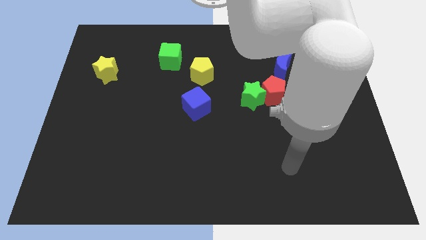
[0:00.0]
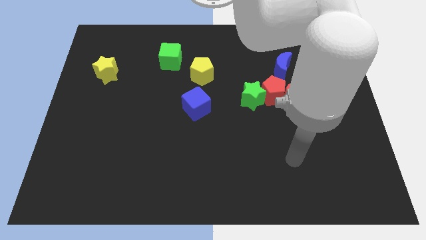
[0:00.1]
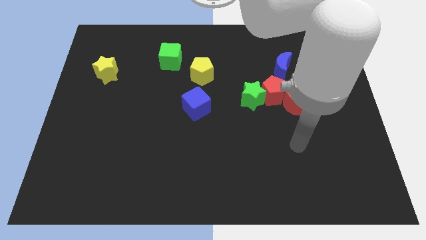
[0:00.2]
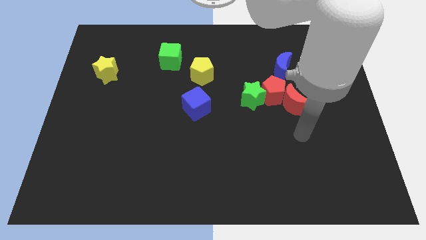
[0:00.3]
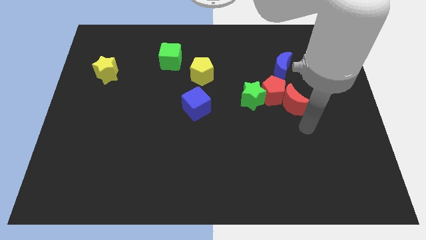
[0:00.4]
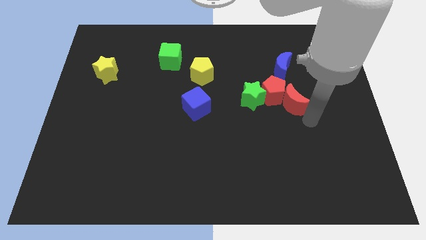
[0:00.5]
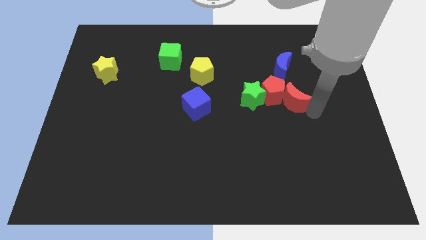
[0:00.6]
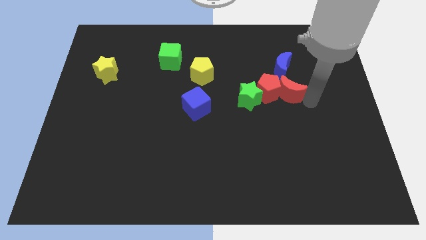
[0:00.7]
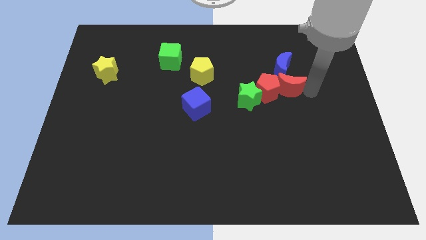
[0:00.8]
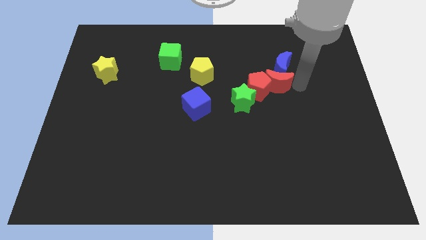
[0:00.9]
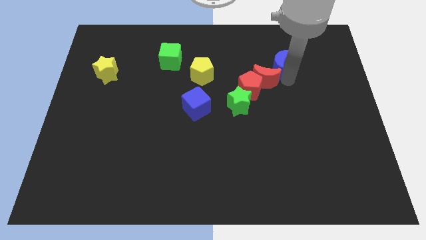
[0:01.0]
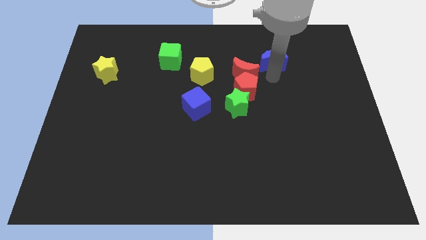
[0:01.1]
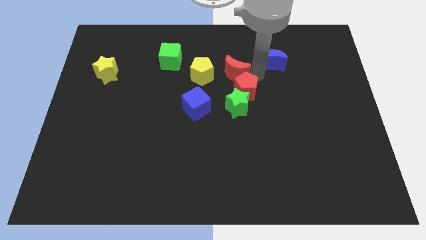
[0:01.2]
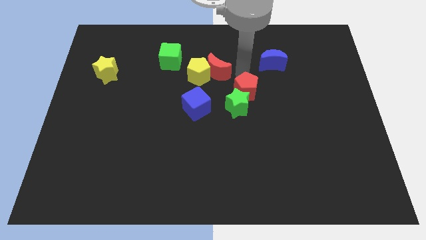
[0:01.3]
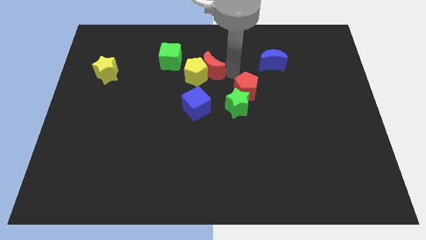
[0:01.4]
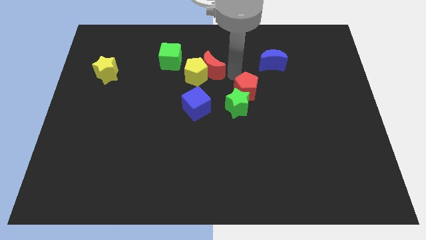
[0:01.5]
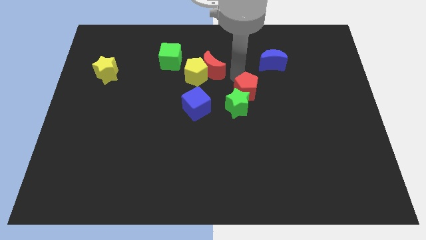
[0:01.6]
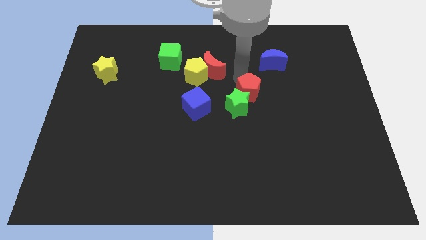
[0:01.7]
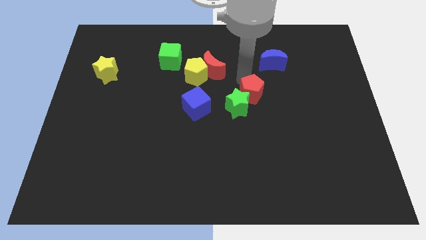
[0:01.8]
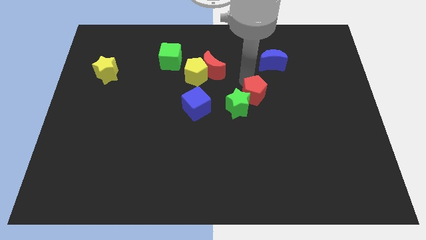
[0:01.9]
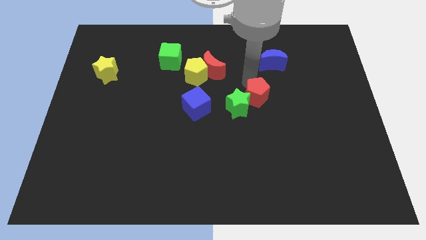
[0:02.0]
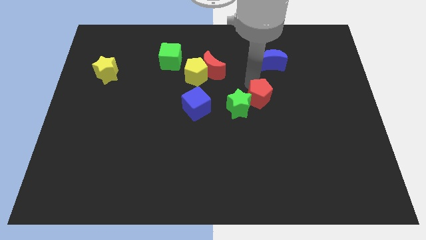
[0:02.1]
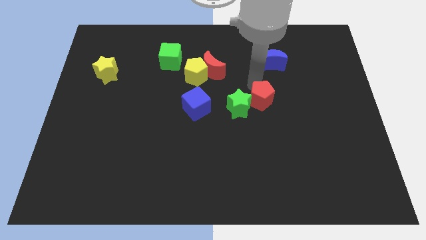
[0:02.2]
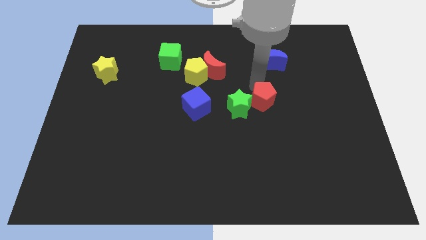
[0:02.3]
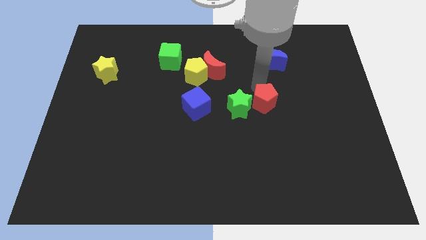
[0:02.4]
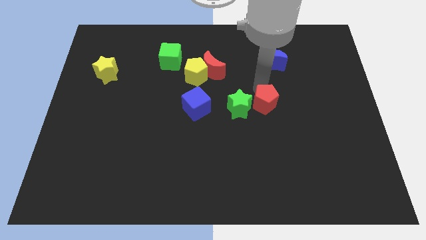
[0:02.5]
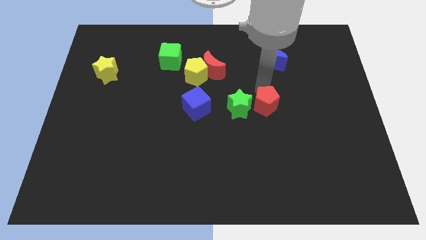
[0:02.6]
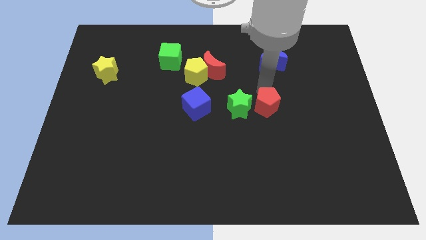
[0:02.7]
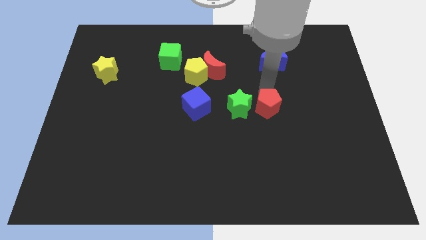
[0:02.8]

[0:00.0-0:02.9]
pull the red pentagon apart from the group

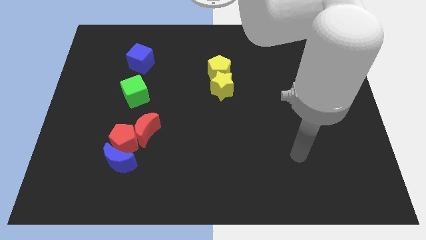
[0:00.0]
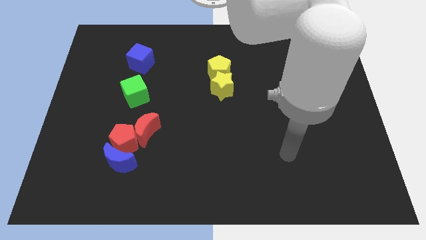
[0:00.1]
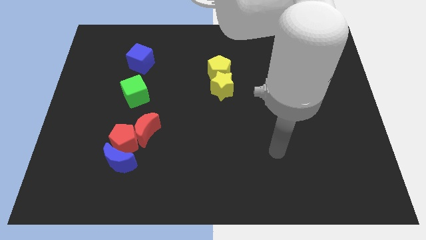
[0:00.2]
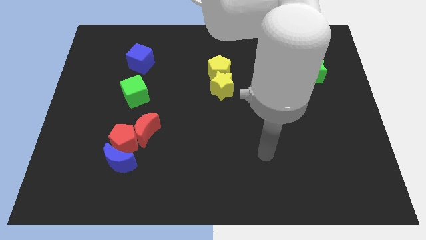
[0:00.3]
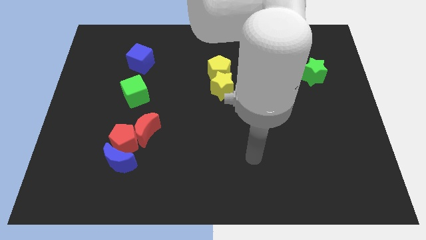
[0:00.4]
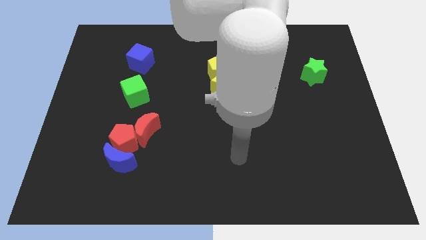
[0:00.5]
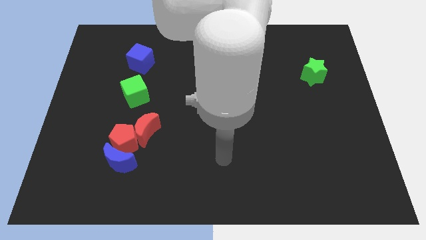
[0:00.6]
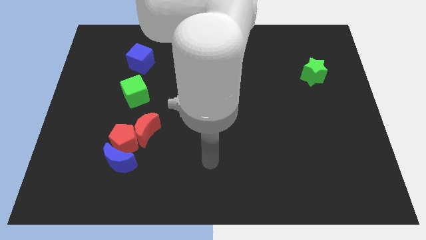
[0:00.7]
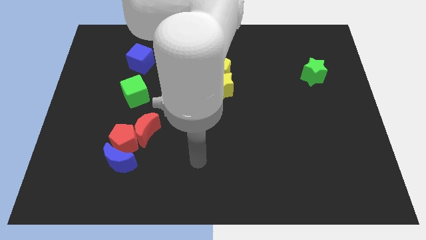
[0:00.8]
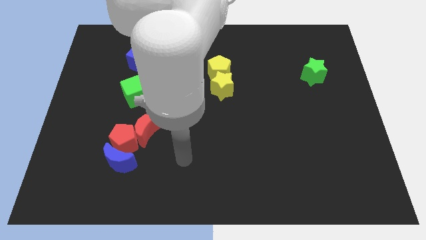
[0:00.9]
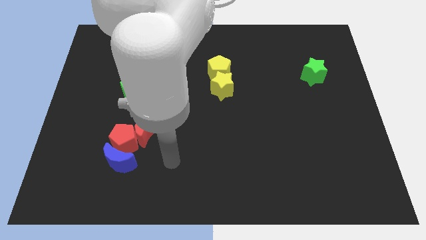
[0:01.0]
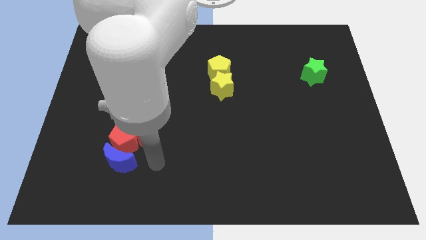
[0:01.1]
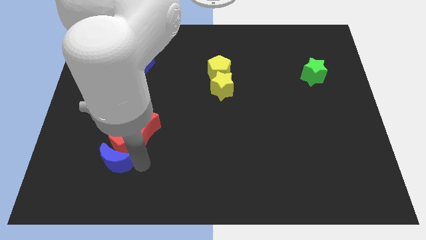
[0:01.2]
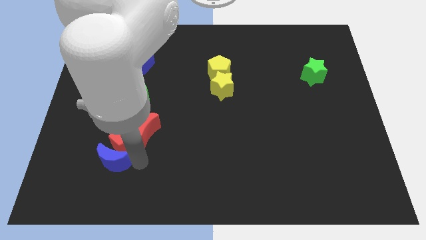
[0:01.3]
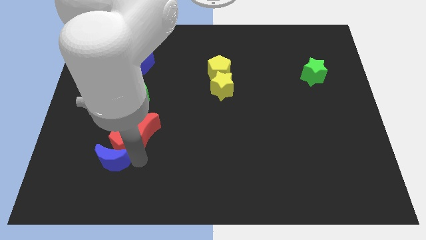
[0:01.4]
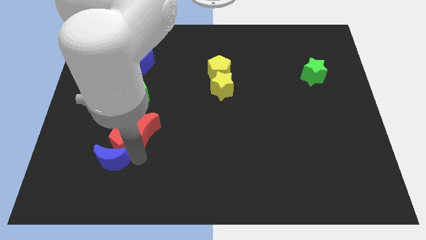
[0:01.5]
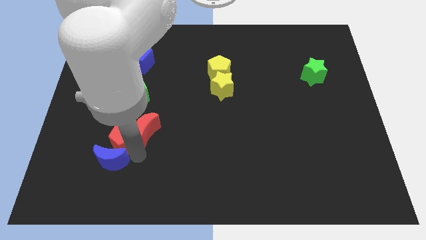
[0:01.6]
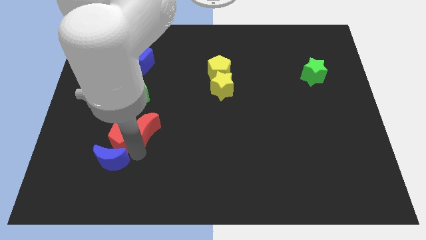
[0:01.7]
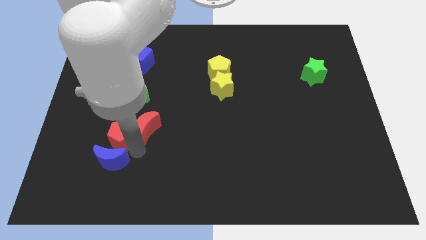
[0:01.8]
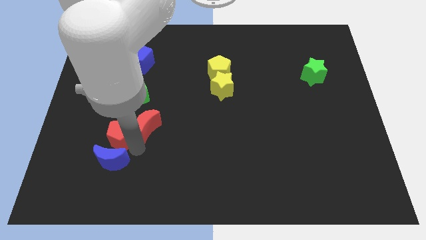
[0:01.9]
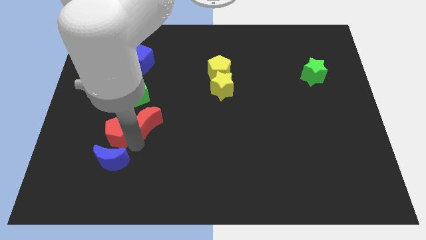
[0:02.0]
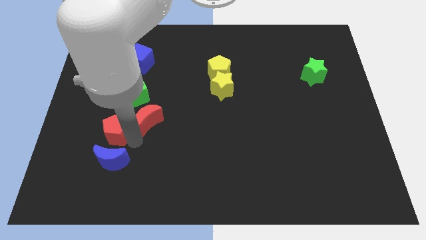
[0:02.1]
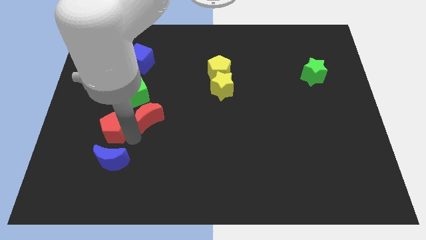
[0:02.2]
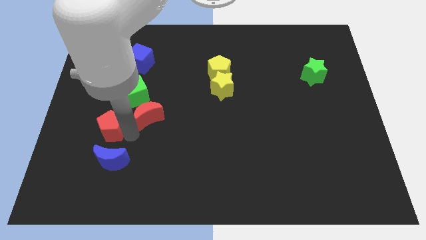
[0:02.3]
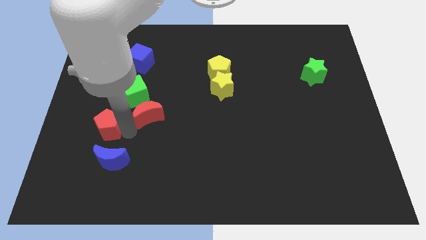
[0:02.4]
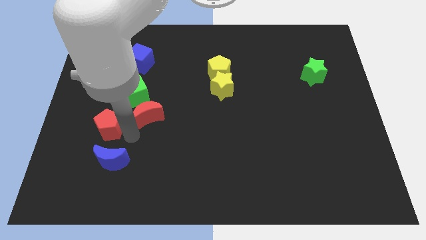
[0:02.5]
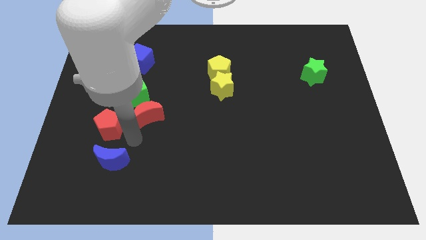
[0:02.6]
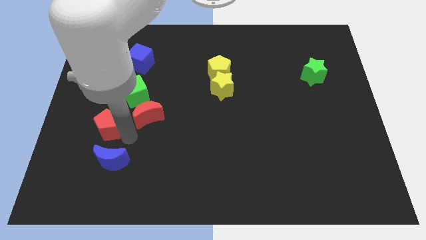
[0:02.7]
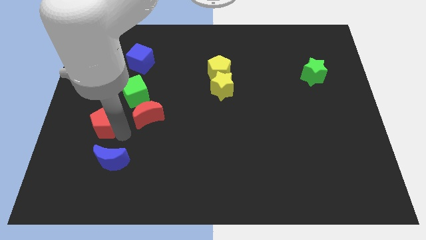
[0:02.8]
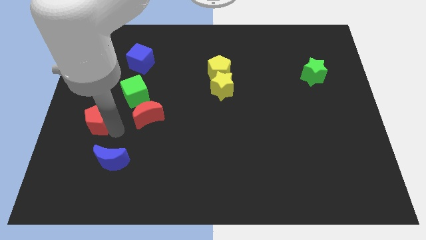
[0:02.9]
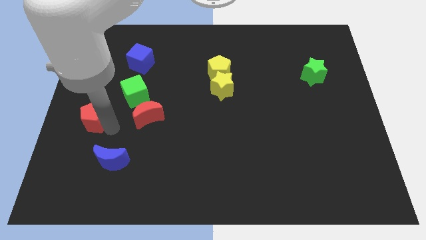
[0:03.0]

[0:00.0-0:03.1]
move the red pentagon away from the red moon and blue moon

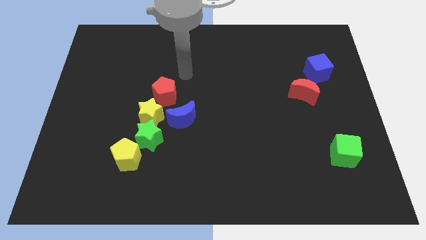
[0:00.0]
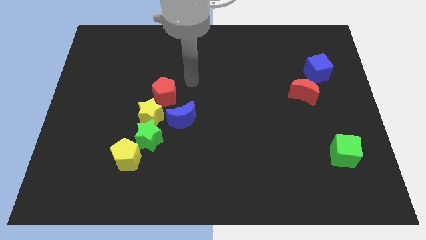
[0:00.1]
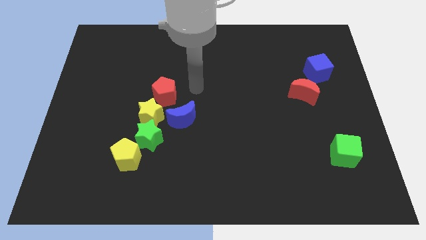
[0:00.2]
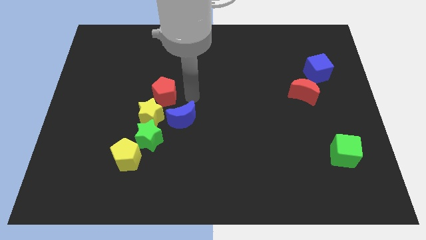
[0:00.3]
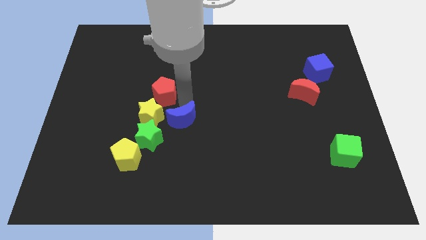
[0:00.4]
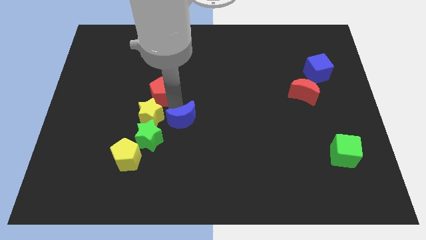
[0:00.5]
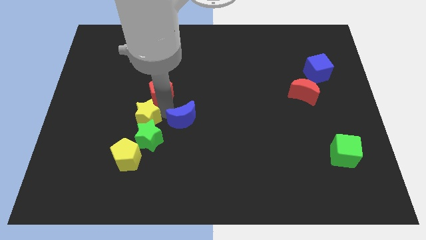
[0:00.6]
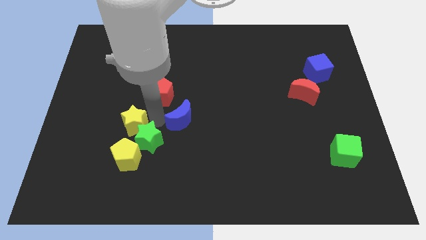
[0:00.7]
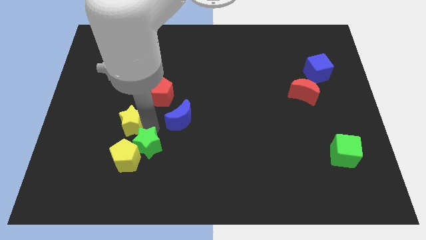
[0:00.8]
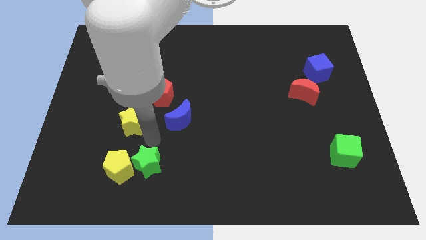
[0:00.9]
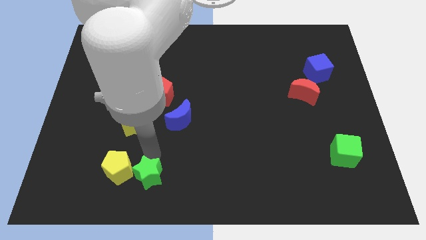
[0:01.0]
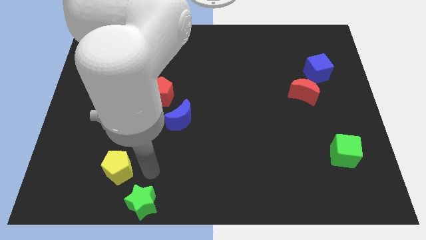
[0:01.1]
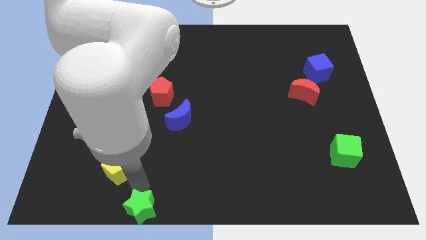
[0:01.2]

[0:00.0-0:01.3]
separate the yellow pentagon from the green star

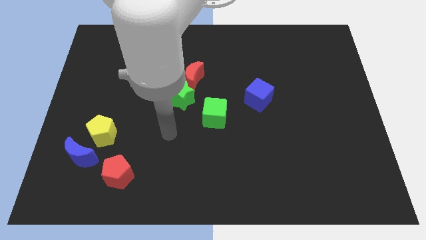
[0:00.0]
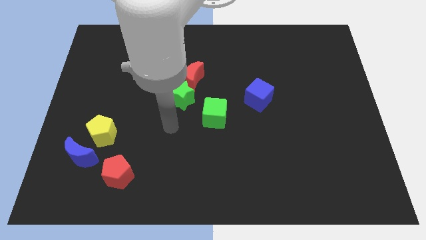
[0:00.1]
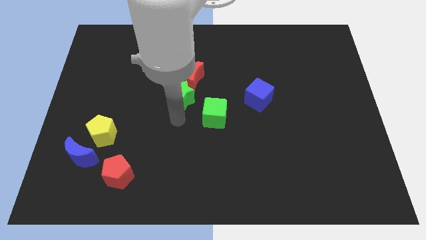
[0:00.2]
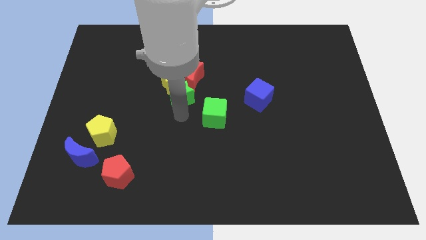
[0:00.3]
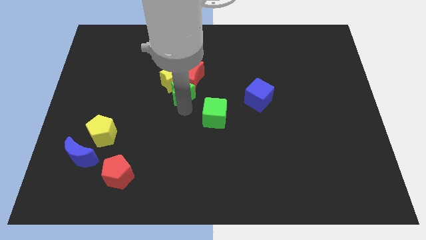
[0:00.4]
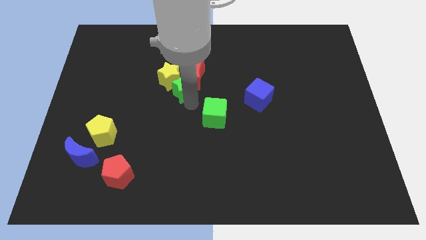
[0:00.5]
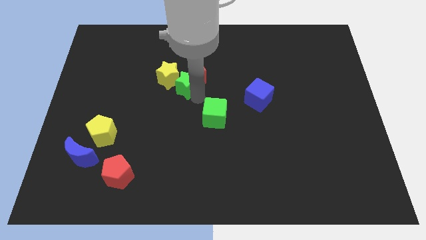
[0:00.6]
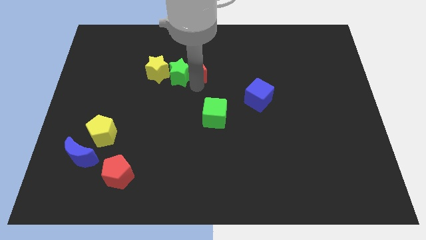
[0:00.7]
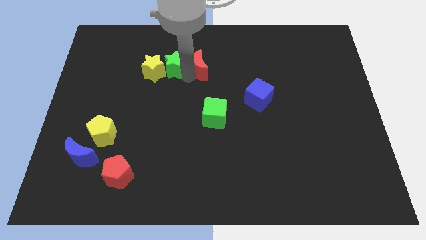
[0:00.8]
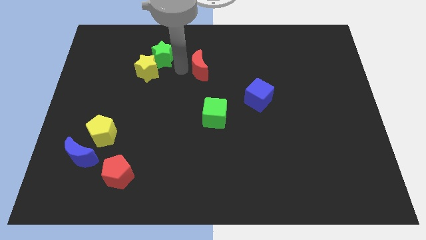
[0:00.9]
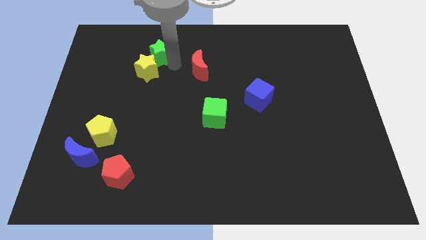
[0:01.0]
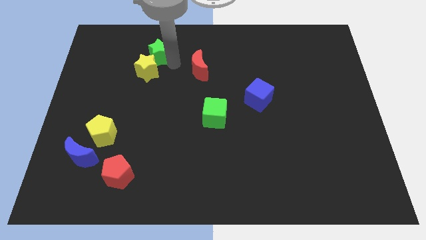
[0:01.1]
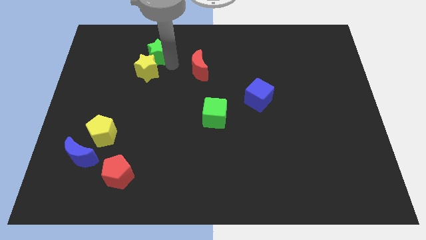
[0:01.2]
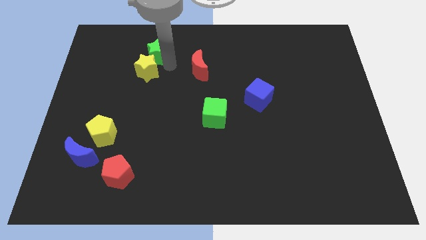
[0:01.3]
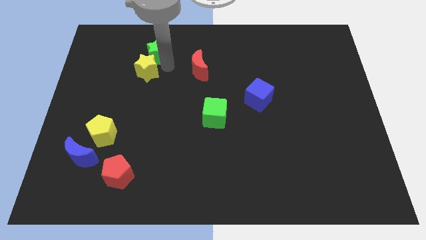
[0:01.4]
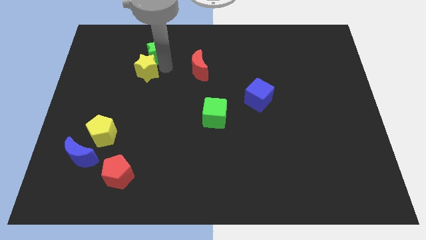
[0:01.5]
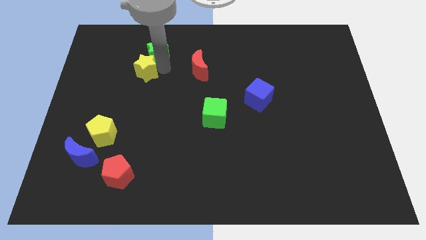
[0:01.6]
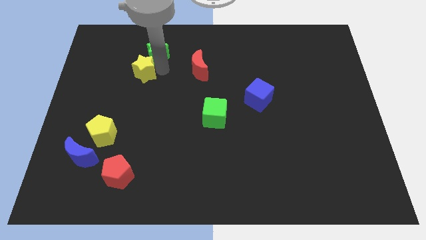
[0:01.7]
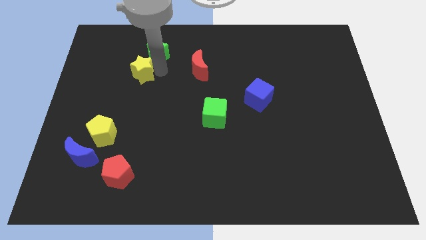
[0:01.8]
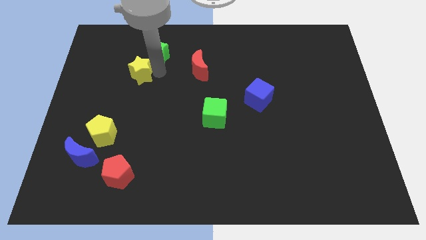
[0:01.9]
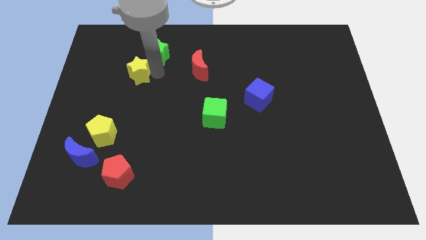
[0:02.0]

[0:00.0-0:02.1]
pull the yellow star apart from the red moon and green star

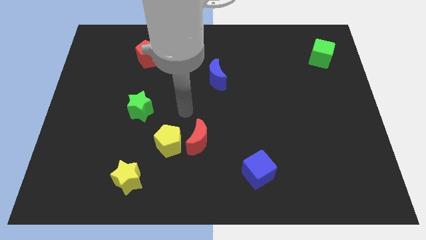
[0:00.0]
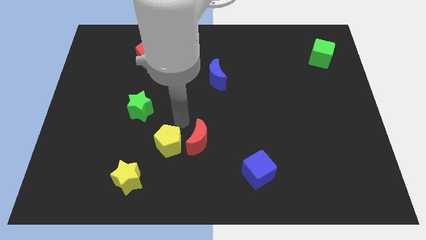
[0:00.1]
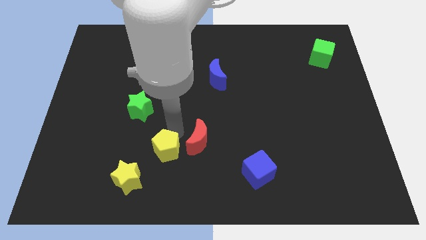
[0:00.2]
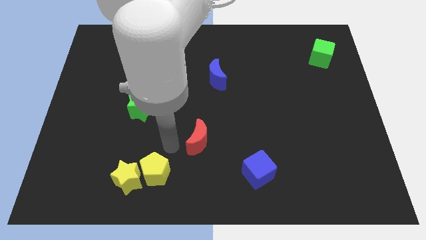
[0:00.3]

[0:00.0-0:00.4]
separate the red moon from the yellow pentagon
